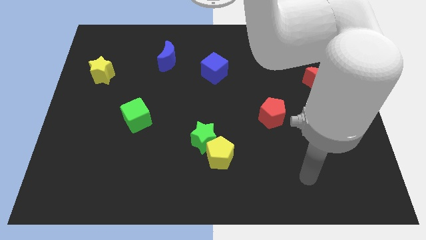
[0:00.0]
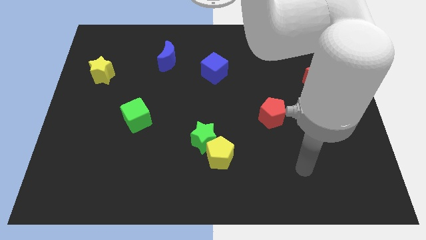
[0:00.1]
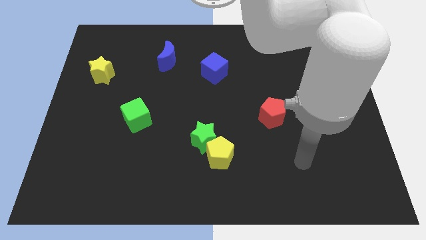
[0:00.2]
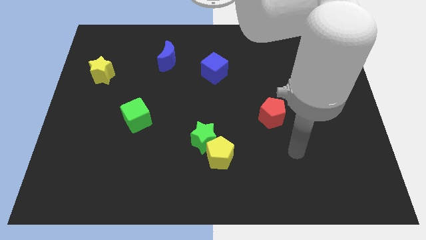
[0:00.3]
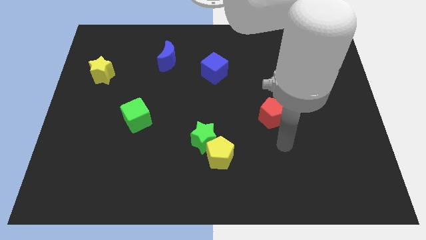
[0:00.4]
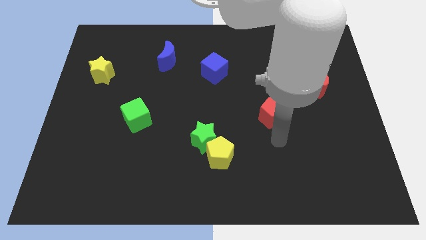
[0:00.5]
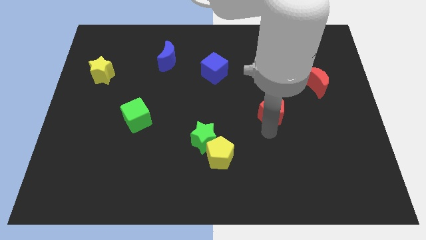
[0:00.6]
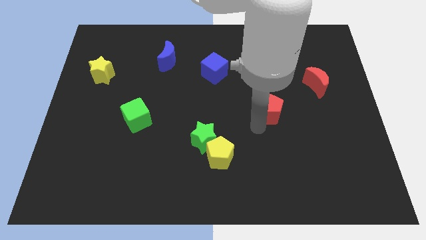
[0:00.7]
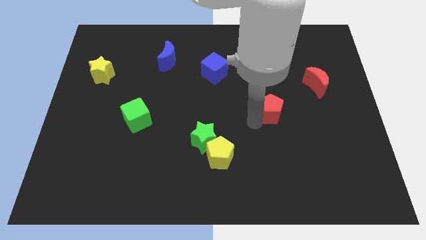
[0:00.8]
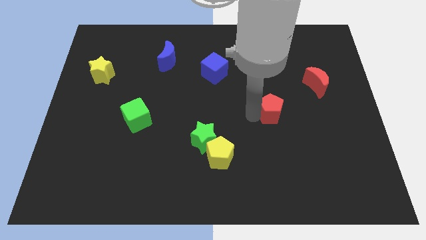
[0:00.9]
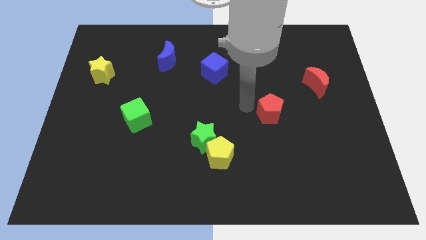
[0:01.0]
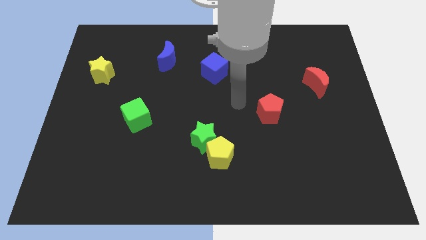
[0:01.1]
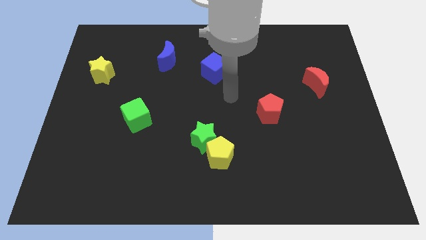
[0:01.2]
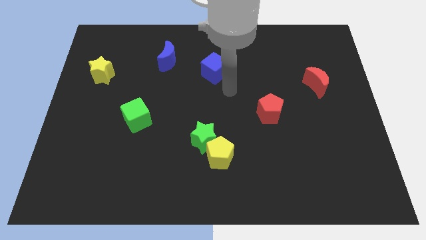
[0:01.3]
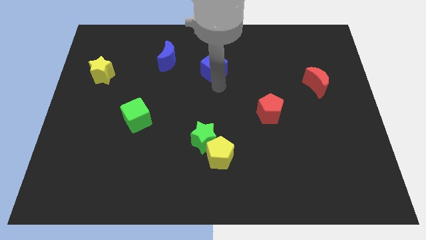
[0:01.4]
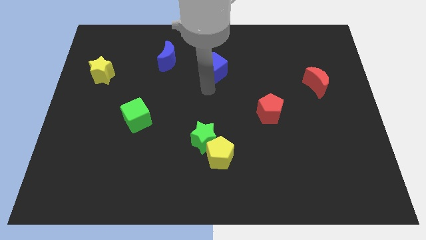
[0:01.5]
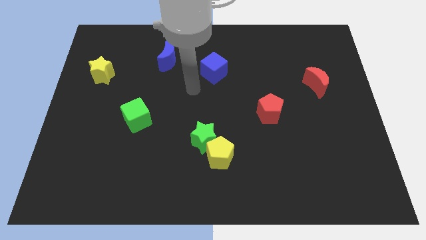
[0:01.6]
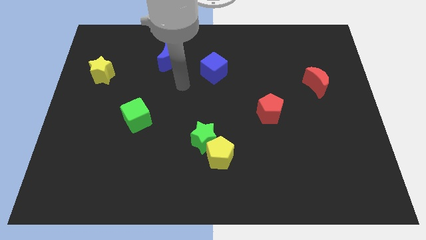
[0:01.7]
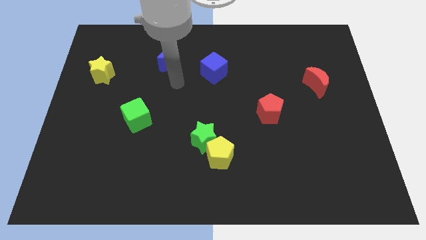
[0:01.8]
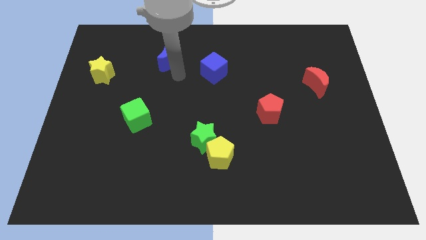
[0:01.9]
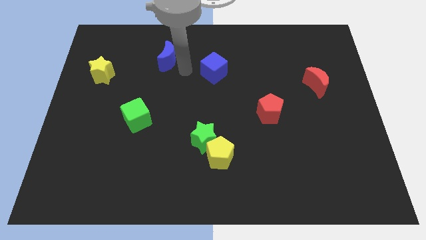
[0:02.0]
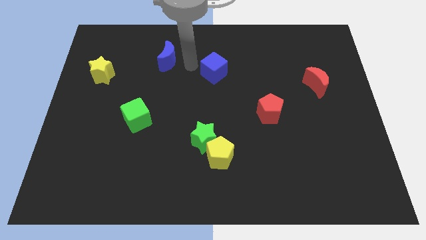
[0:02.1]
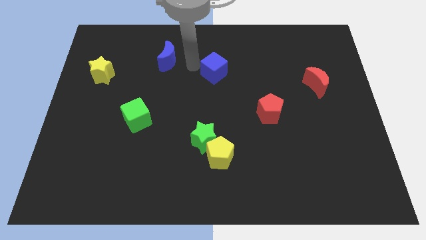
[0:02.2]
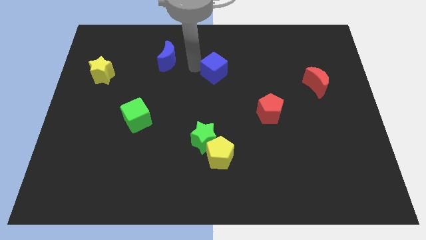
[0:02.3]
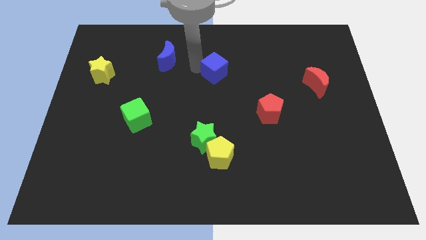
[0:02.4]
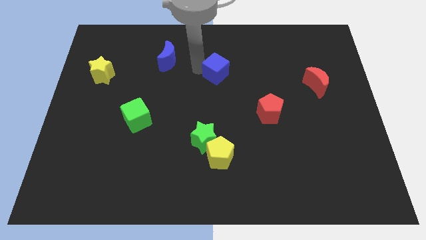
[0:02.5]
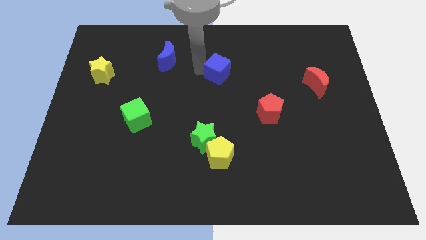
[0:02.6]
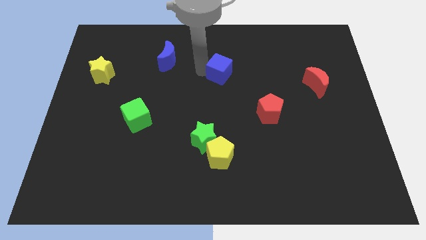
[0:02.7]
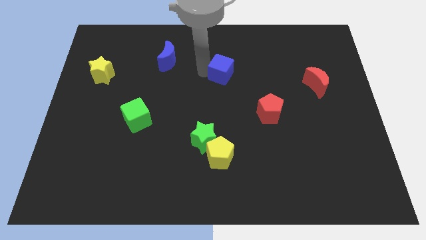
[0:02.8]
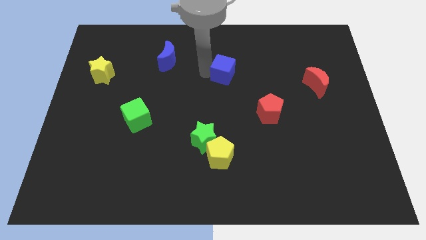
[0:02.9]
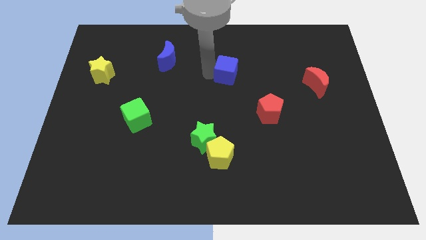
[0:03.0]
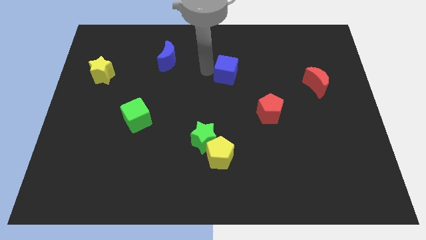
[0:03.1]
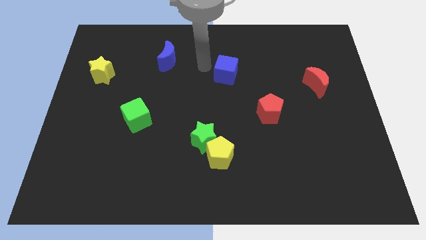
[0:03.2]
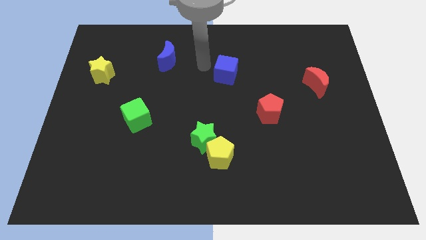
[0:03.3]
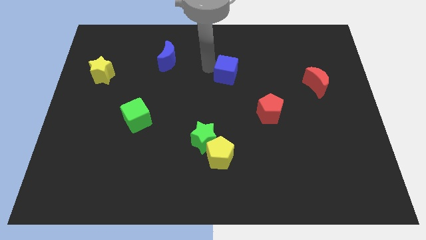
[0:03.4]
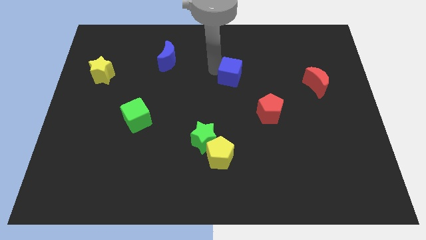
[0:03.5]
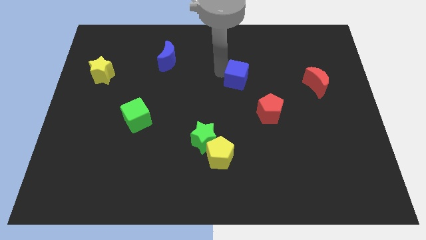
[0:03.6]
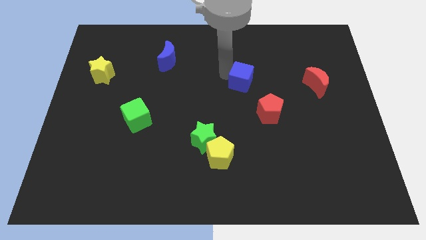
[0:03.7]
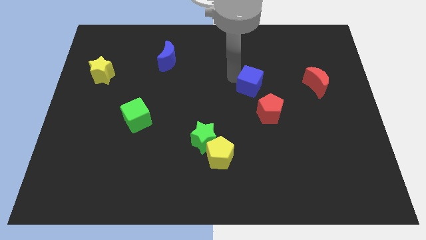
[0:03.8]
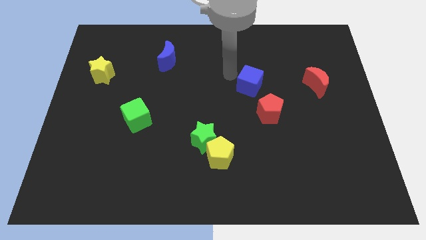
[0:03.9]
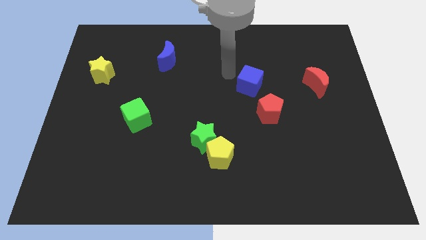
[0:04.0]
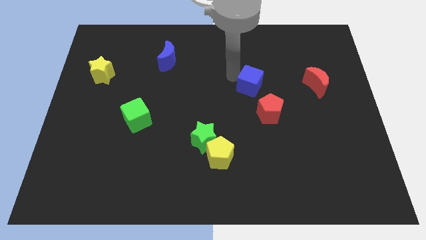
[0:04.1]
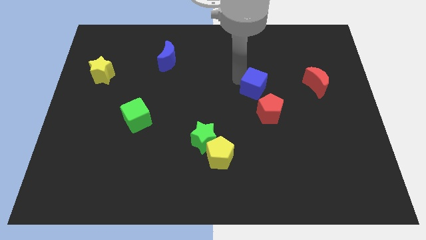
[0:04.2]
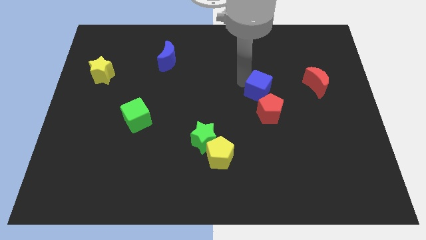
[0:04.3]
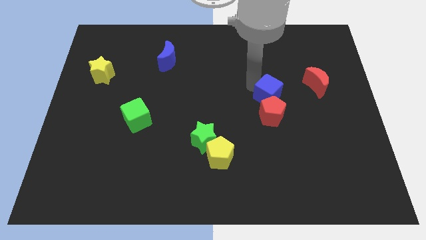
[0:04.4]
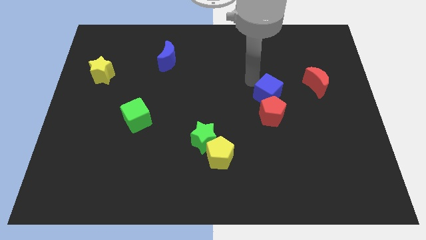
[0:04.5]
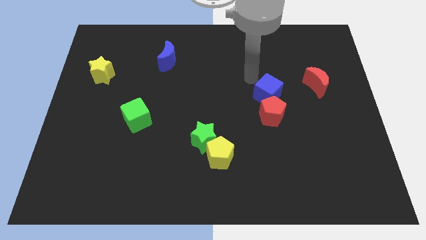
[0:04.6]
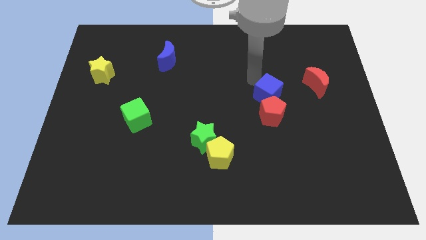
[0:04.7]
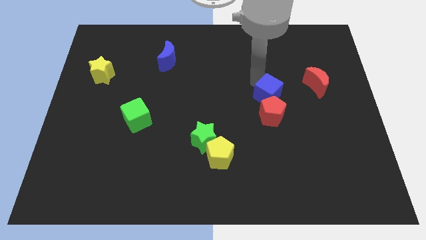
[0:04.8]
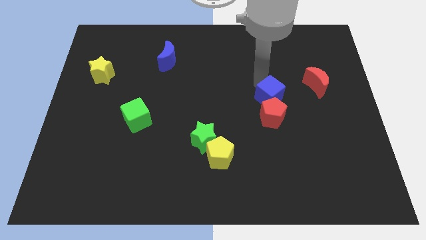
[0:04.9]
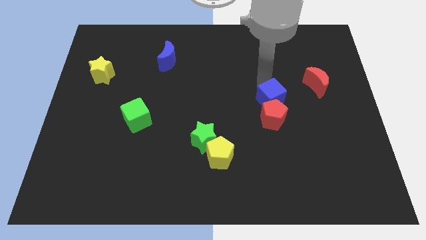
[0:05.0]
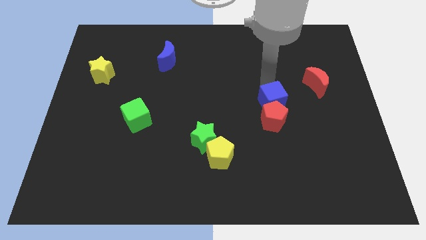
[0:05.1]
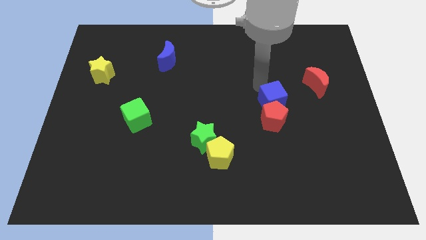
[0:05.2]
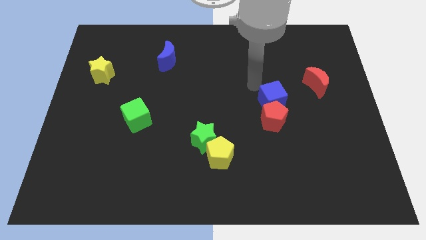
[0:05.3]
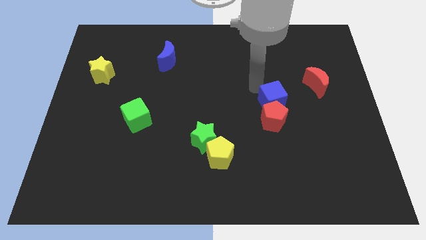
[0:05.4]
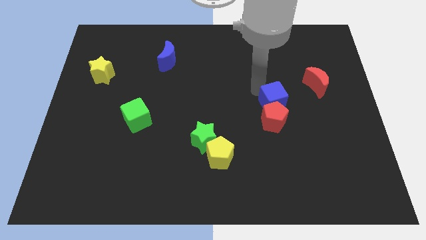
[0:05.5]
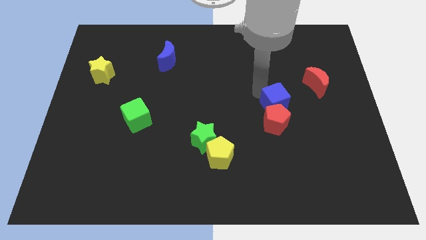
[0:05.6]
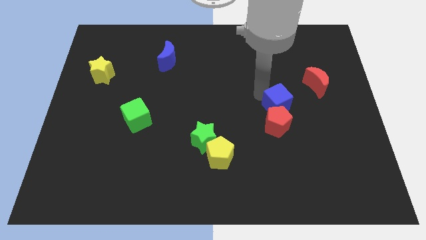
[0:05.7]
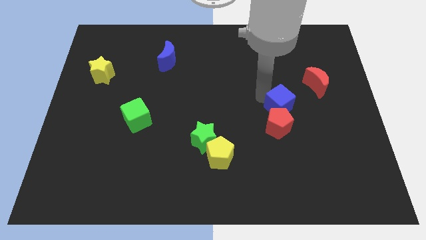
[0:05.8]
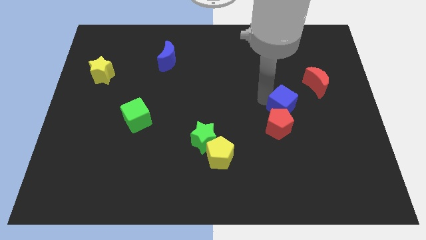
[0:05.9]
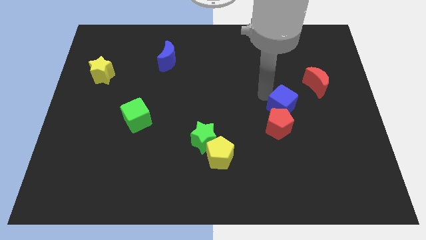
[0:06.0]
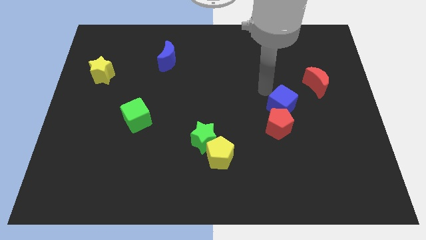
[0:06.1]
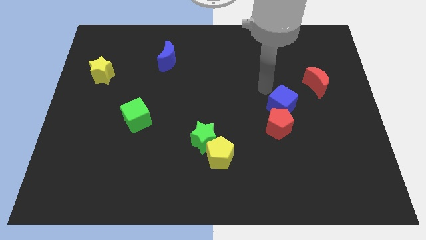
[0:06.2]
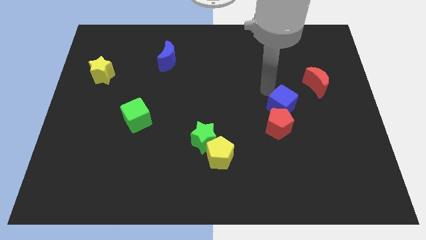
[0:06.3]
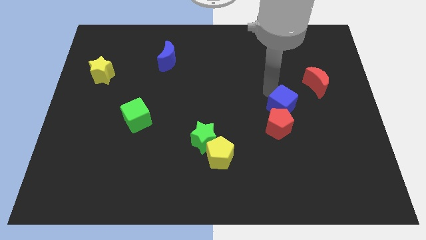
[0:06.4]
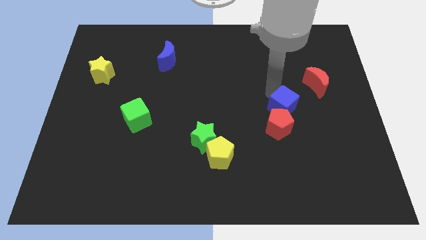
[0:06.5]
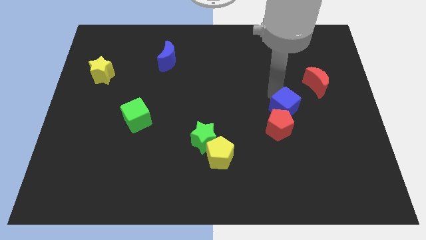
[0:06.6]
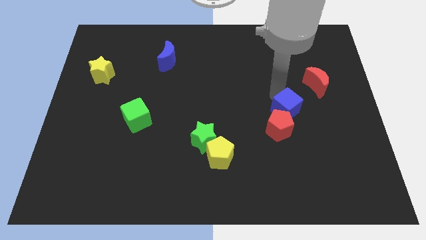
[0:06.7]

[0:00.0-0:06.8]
slide the blue cube down and right diagonally

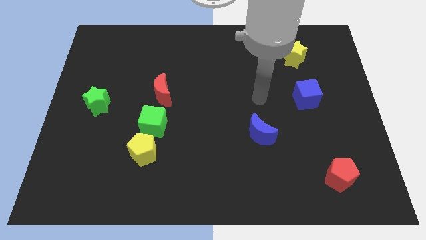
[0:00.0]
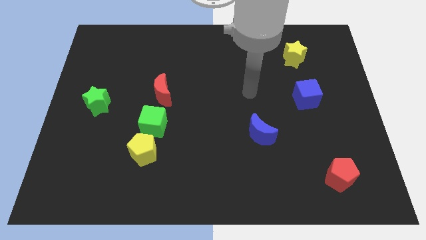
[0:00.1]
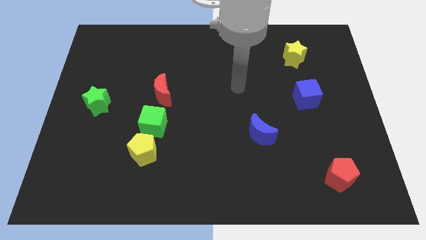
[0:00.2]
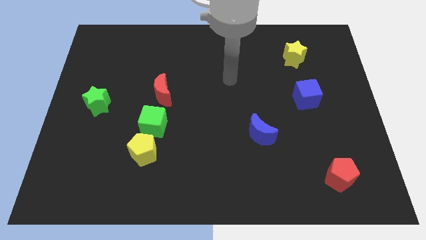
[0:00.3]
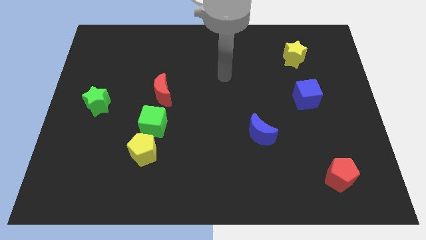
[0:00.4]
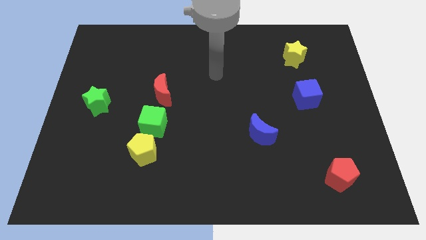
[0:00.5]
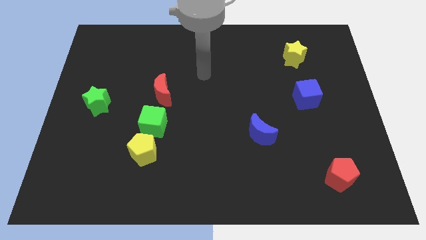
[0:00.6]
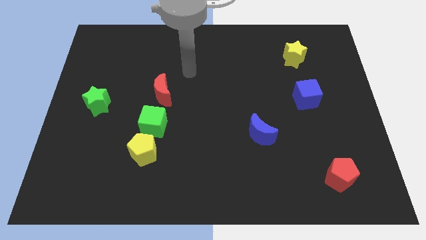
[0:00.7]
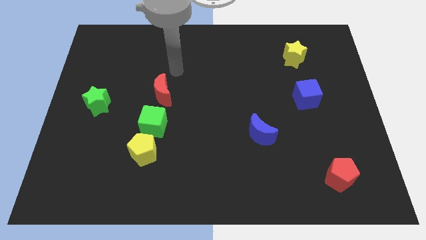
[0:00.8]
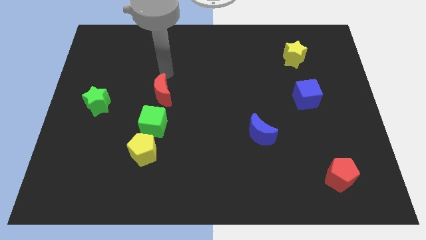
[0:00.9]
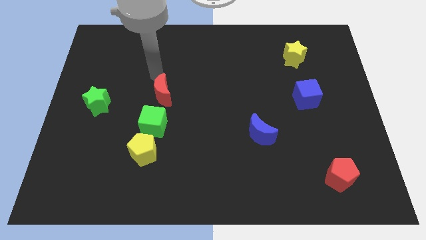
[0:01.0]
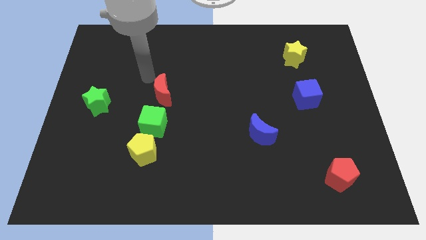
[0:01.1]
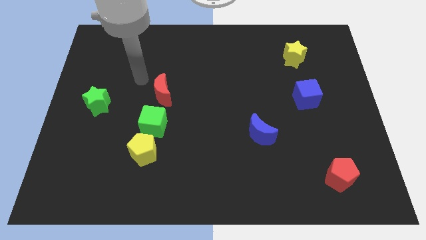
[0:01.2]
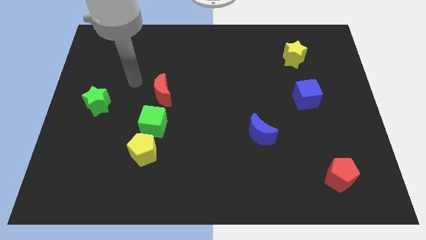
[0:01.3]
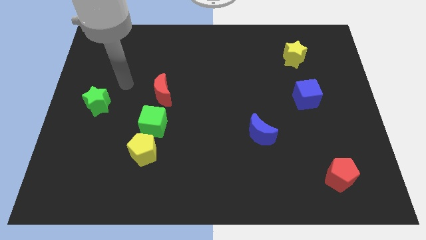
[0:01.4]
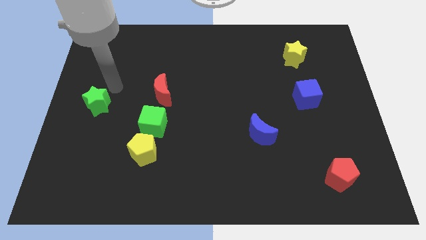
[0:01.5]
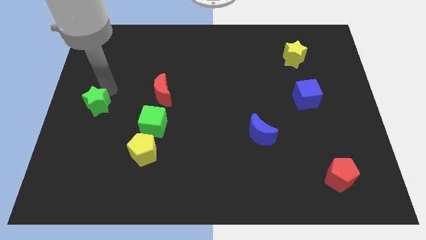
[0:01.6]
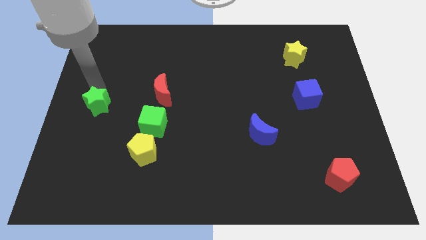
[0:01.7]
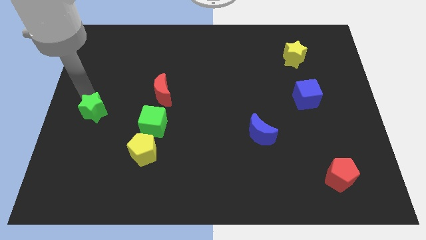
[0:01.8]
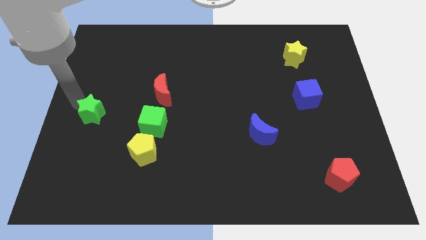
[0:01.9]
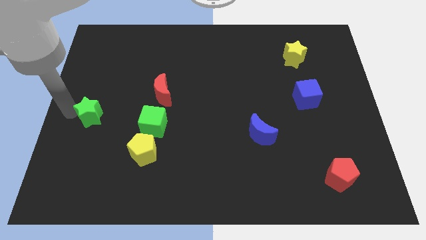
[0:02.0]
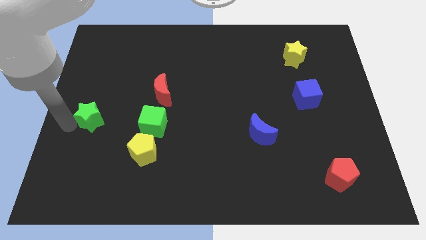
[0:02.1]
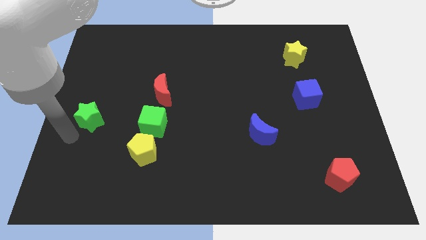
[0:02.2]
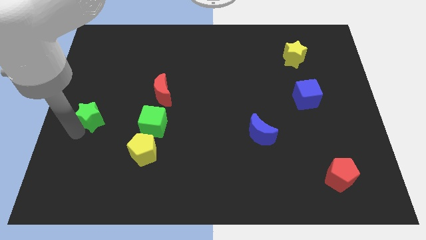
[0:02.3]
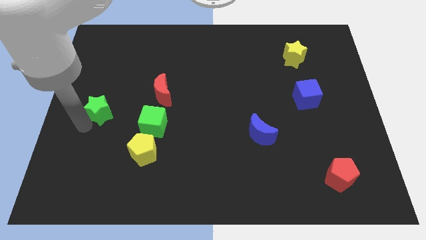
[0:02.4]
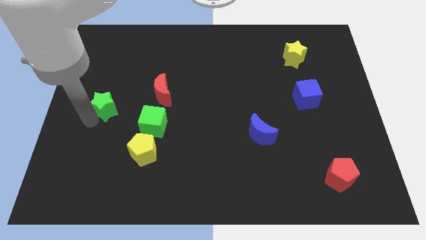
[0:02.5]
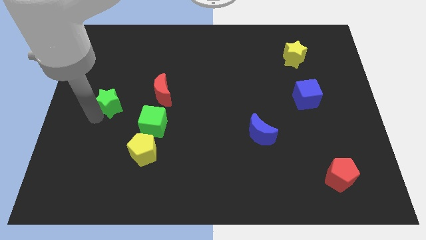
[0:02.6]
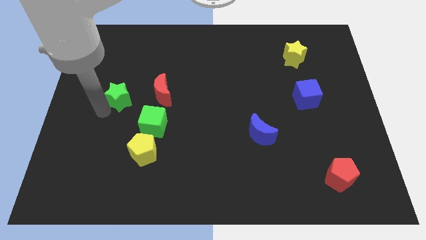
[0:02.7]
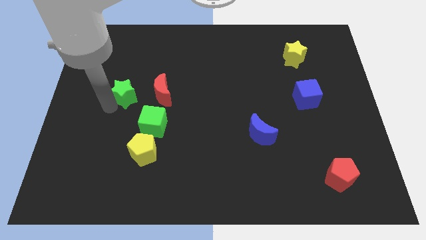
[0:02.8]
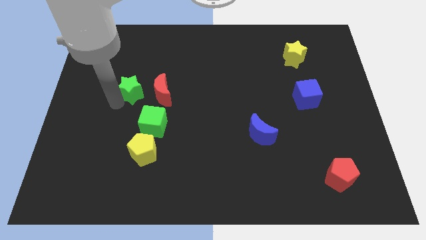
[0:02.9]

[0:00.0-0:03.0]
move the green star upwards and to the right a little bit
